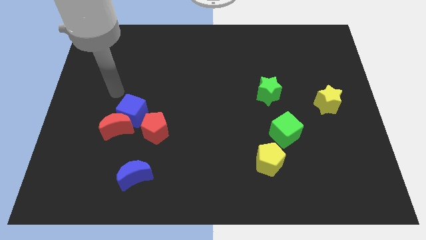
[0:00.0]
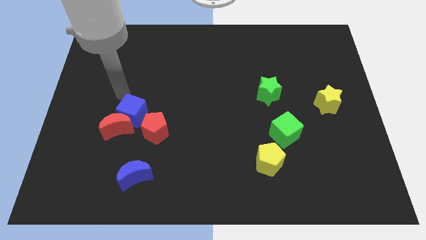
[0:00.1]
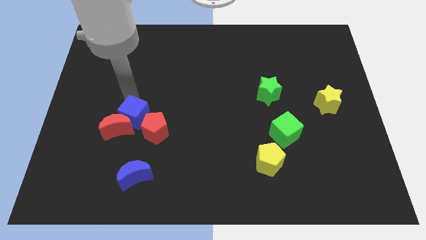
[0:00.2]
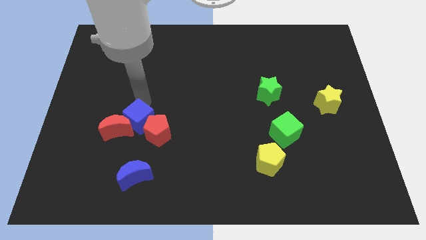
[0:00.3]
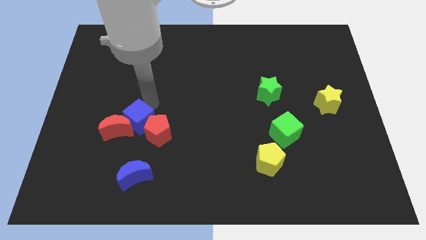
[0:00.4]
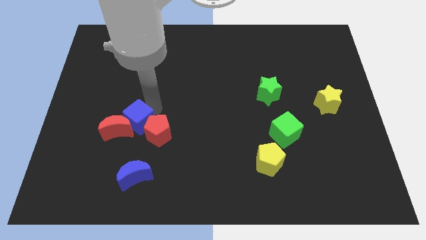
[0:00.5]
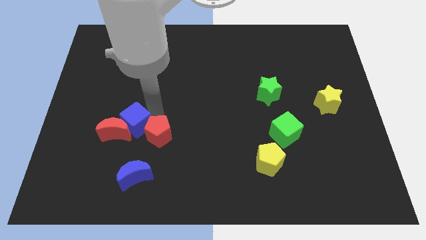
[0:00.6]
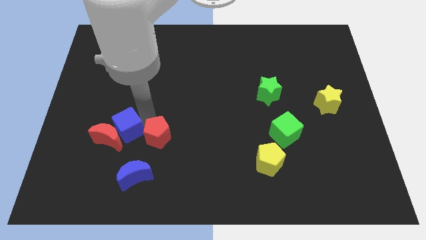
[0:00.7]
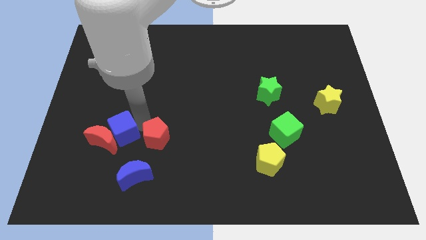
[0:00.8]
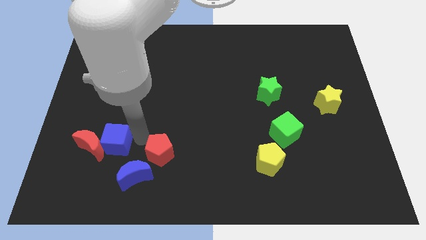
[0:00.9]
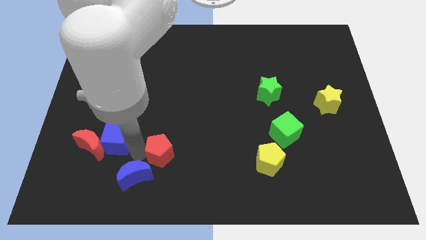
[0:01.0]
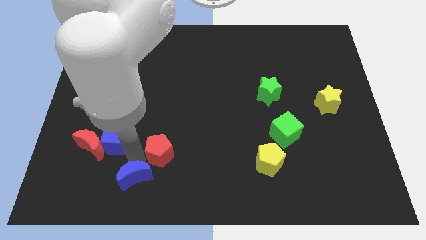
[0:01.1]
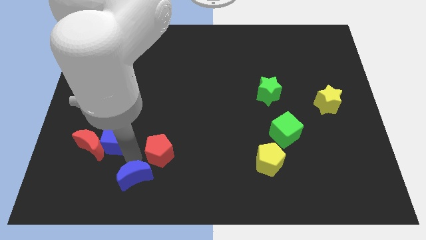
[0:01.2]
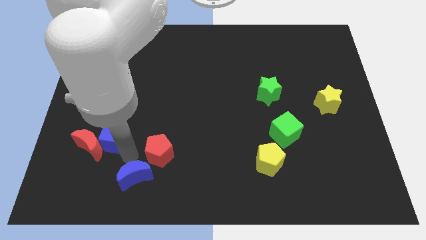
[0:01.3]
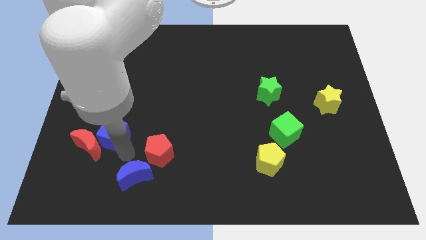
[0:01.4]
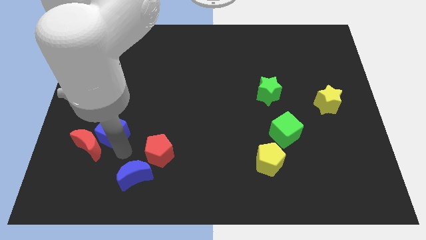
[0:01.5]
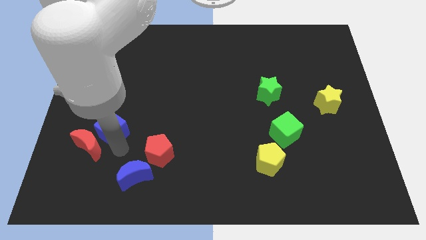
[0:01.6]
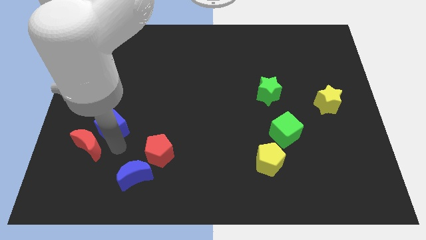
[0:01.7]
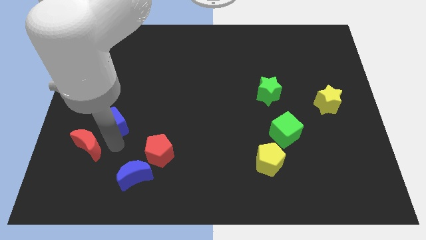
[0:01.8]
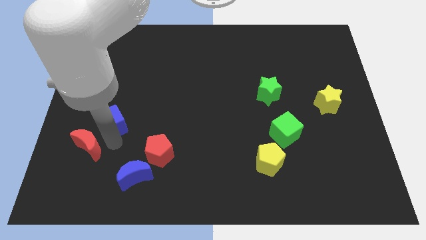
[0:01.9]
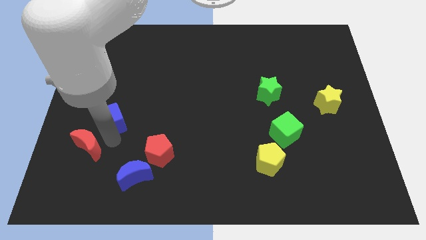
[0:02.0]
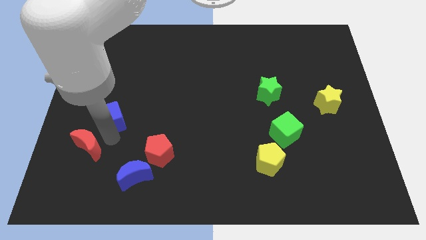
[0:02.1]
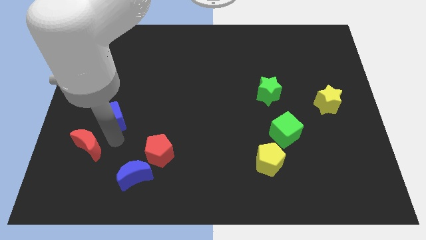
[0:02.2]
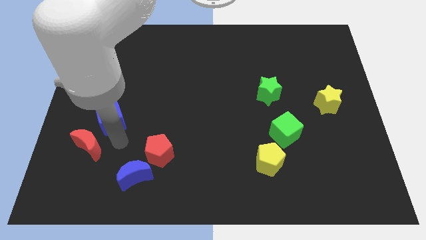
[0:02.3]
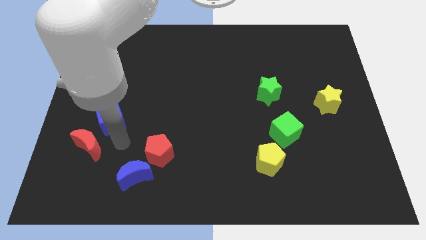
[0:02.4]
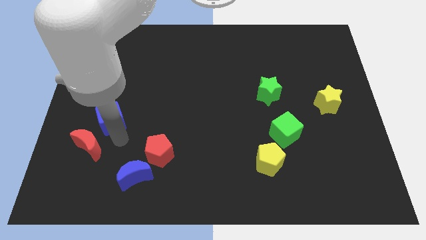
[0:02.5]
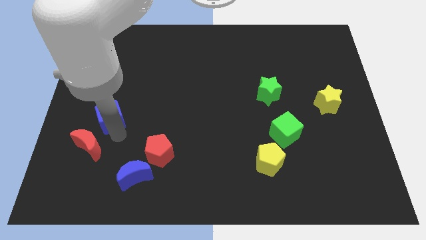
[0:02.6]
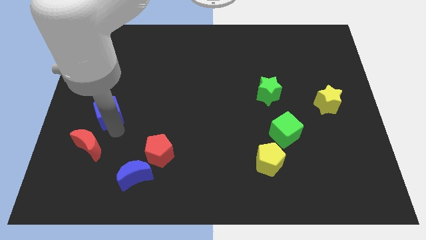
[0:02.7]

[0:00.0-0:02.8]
separate the blue cube from the red moon and red pentagon

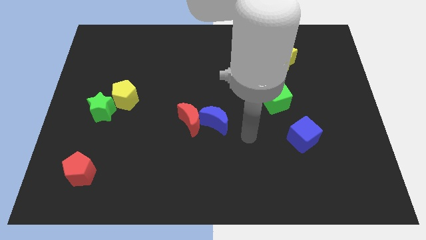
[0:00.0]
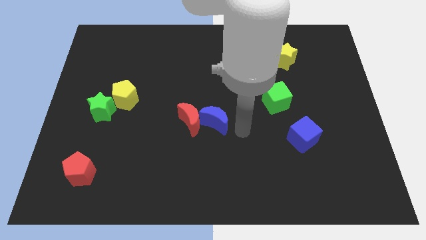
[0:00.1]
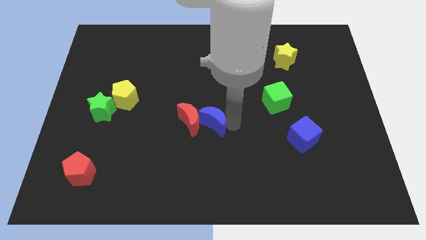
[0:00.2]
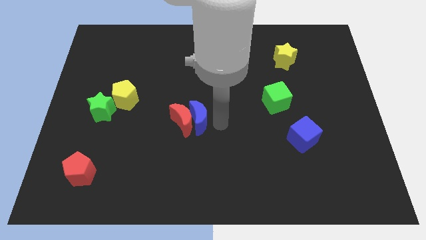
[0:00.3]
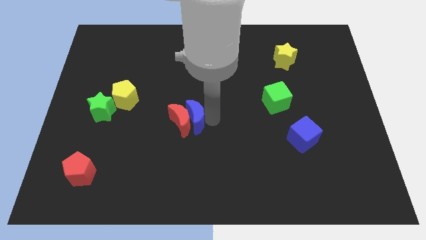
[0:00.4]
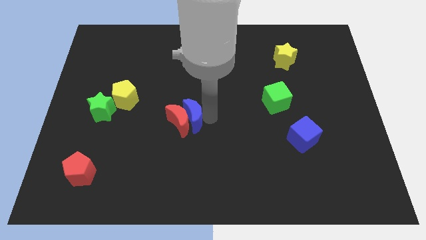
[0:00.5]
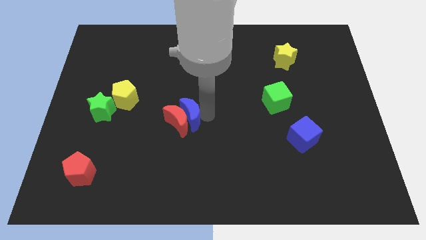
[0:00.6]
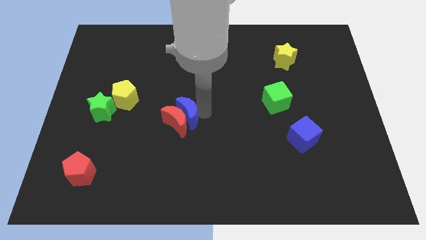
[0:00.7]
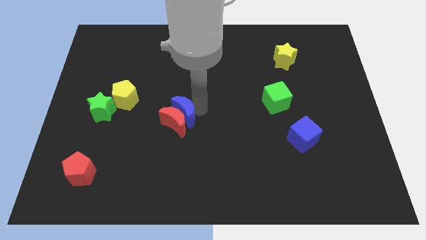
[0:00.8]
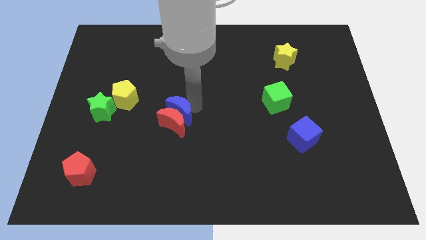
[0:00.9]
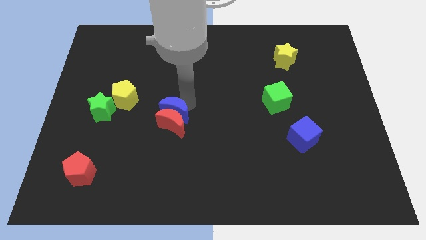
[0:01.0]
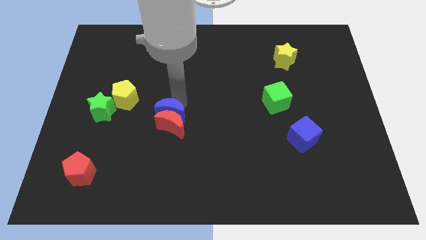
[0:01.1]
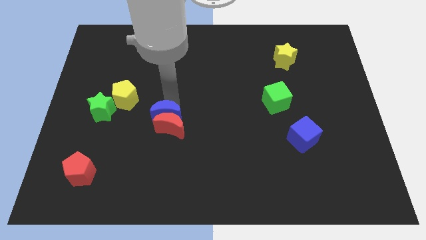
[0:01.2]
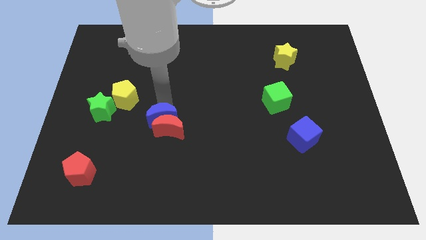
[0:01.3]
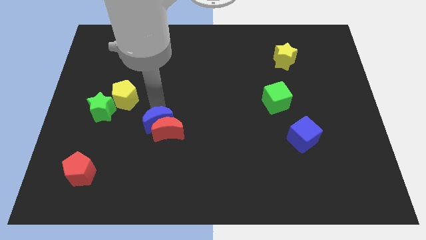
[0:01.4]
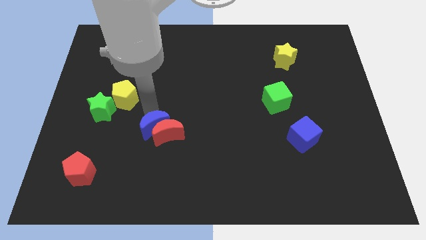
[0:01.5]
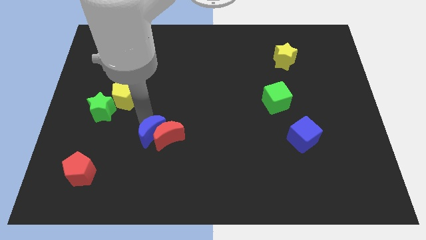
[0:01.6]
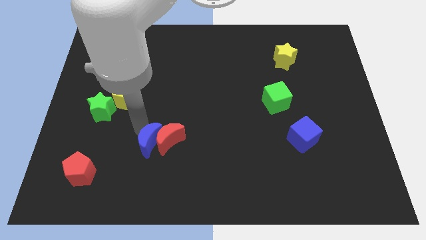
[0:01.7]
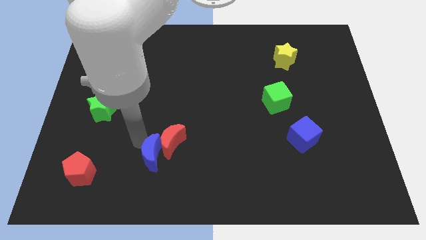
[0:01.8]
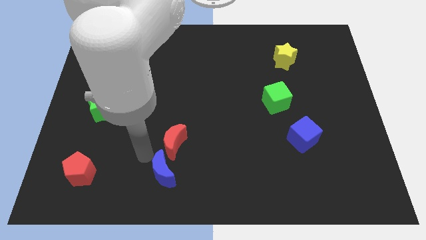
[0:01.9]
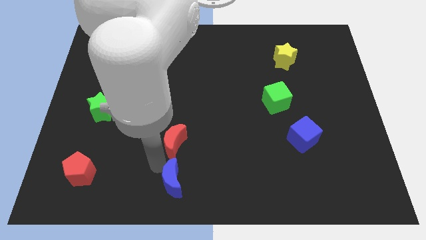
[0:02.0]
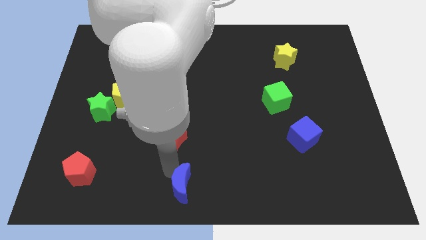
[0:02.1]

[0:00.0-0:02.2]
separate the red moon from the blue moon

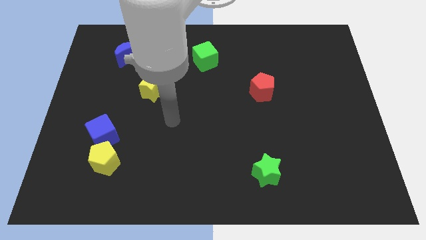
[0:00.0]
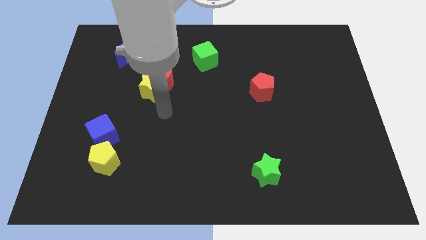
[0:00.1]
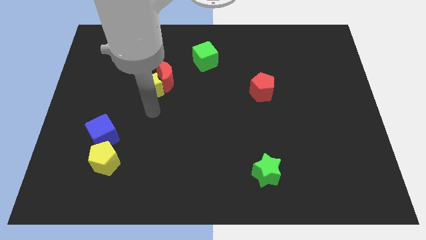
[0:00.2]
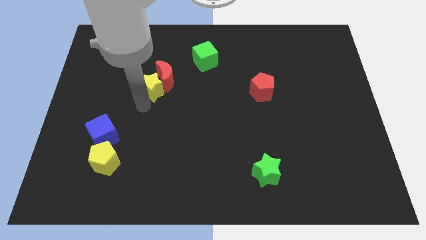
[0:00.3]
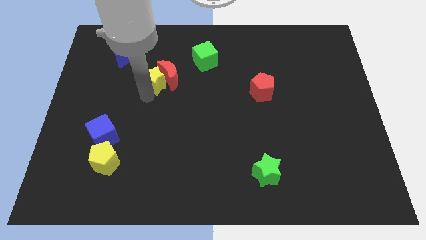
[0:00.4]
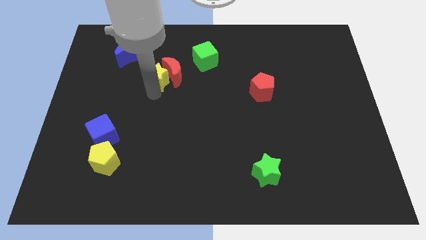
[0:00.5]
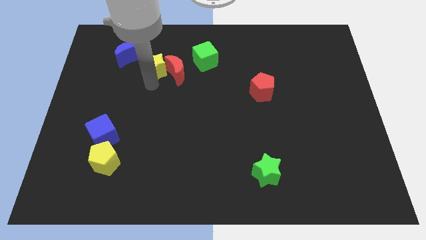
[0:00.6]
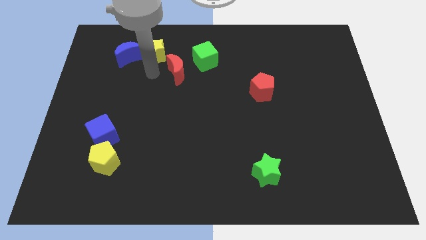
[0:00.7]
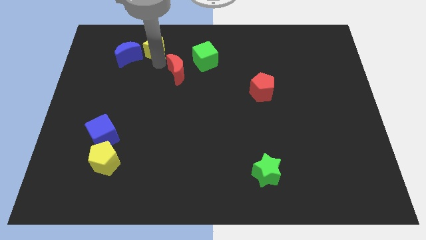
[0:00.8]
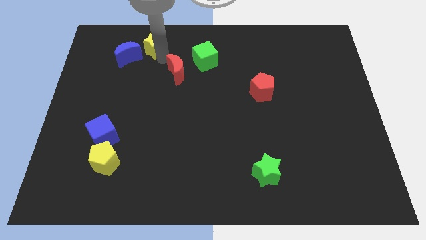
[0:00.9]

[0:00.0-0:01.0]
move the red moon away from the yellow star

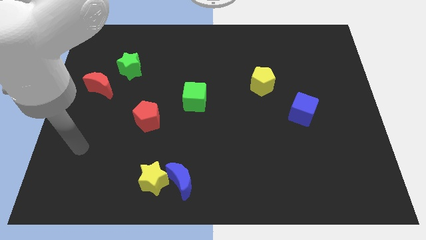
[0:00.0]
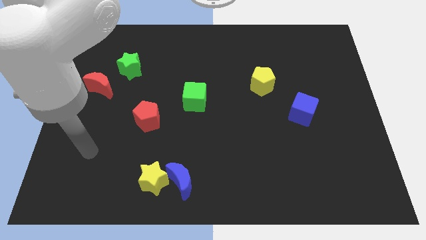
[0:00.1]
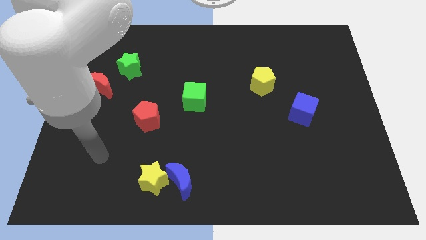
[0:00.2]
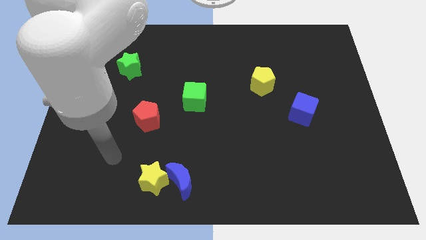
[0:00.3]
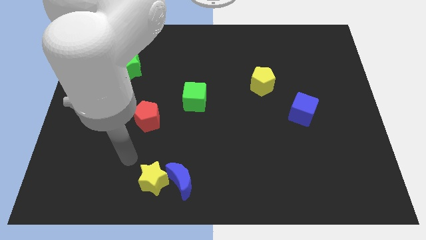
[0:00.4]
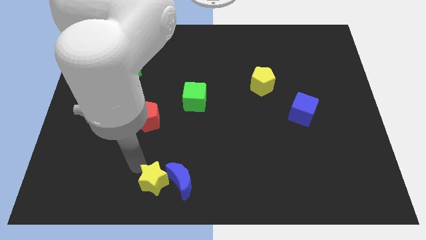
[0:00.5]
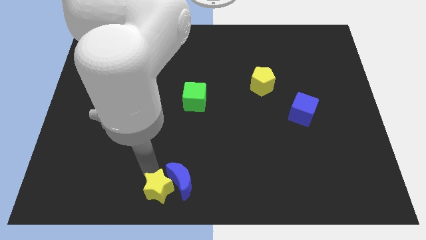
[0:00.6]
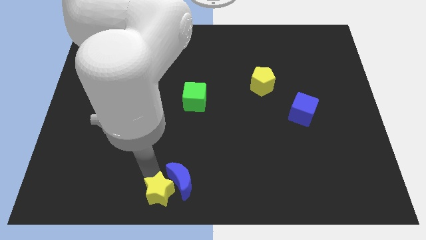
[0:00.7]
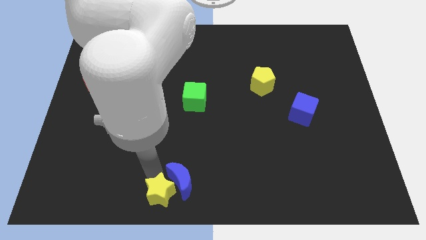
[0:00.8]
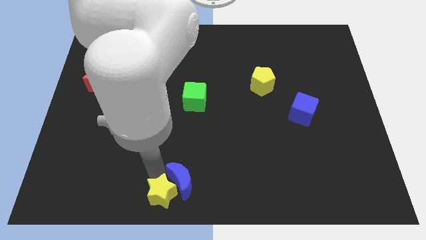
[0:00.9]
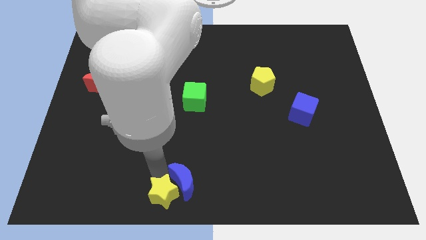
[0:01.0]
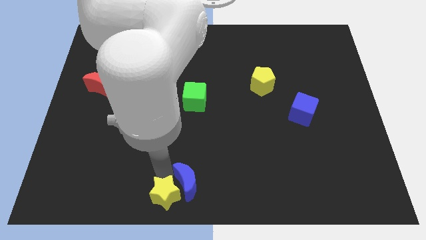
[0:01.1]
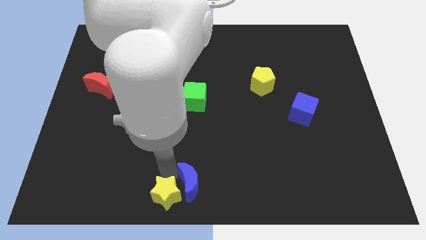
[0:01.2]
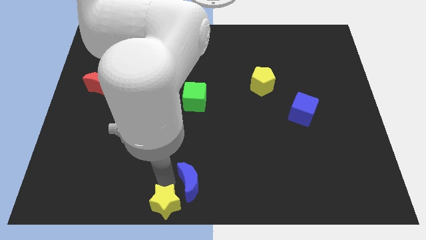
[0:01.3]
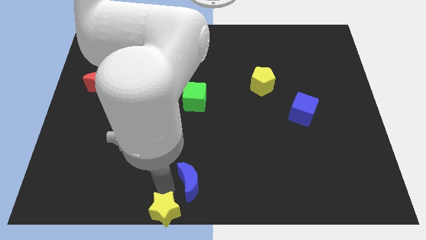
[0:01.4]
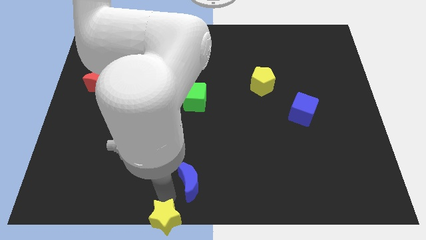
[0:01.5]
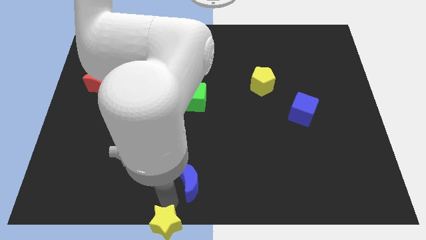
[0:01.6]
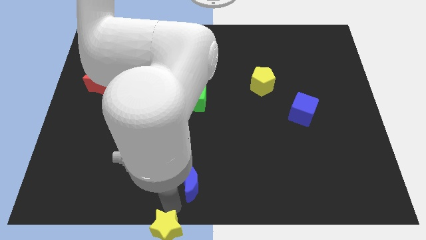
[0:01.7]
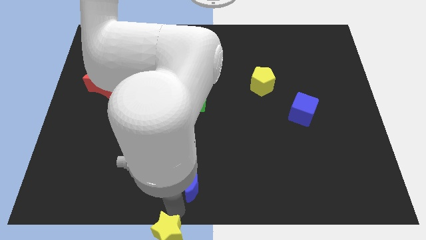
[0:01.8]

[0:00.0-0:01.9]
move the blue moon away from the yellow star

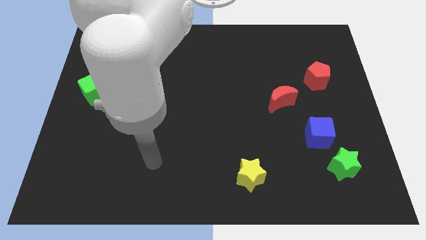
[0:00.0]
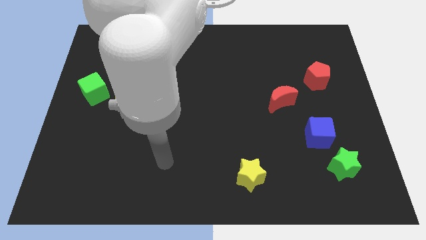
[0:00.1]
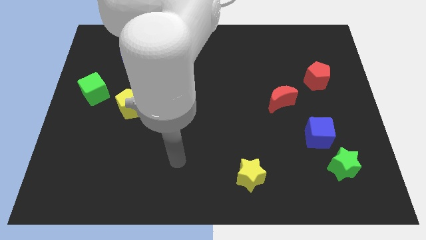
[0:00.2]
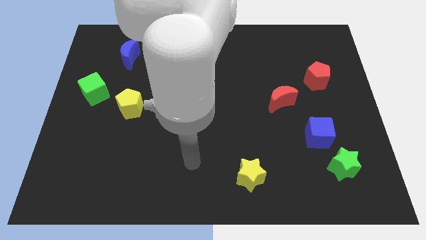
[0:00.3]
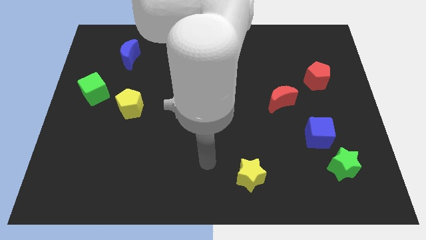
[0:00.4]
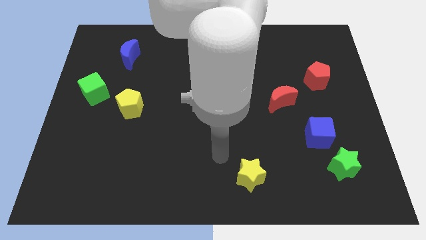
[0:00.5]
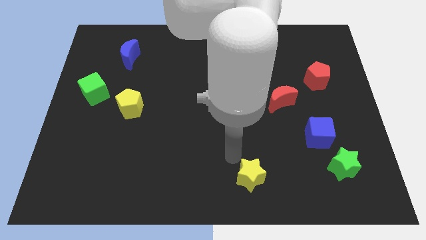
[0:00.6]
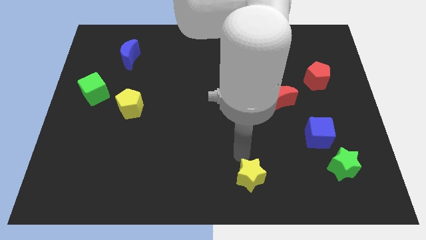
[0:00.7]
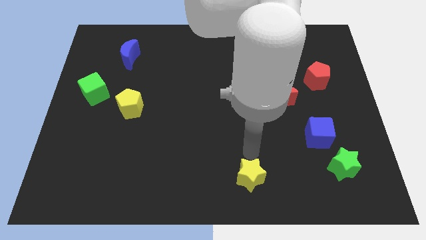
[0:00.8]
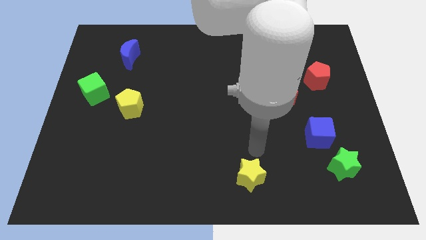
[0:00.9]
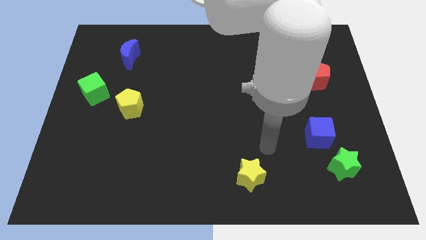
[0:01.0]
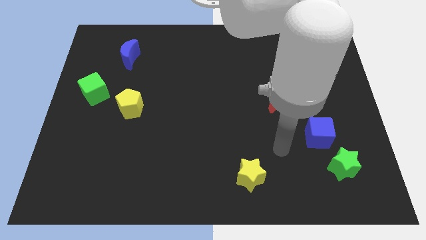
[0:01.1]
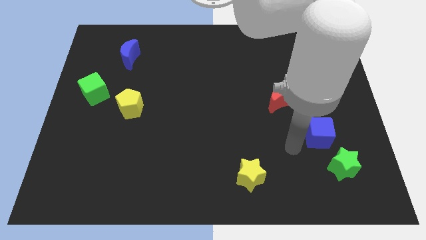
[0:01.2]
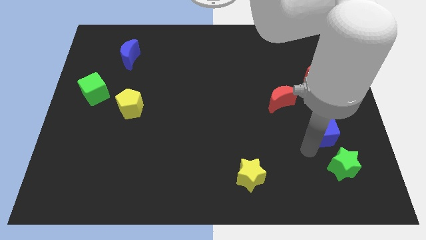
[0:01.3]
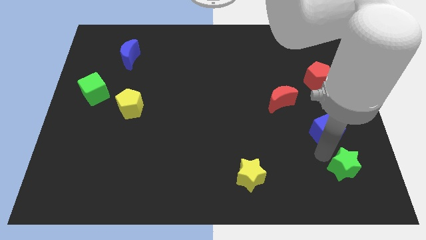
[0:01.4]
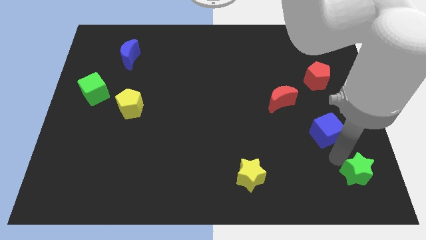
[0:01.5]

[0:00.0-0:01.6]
pull the blue cube apart from the green star
